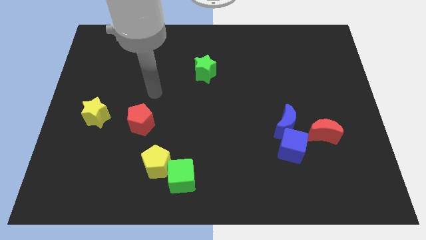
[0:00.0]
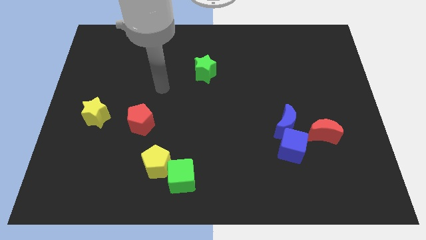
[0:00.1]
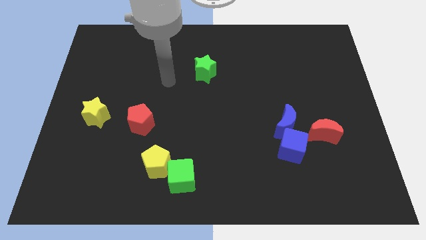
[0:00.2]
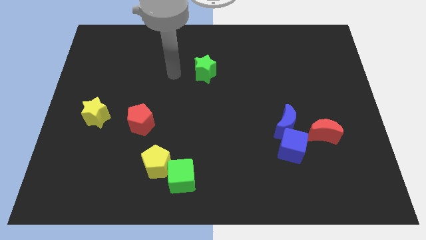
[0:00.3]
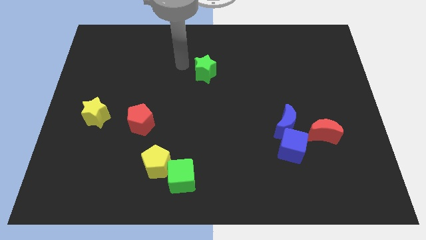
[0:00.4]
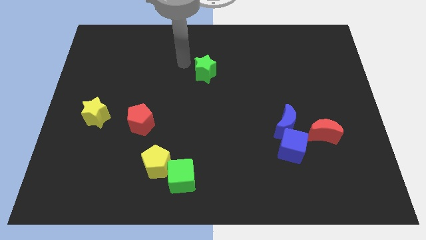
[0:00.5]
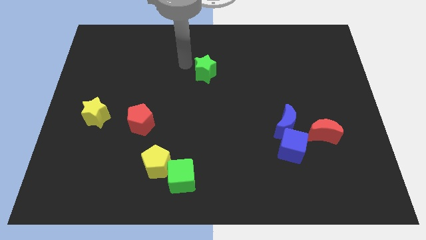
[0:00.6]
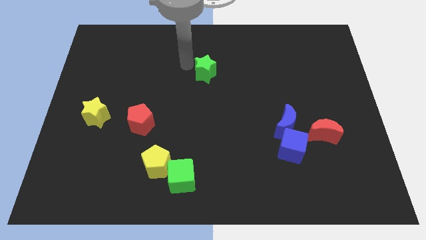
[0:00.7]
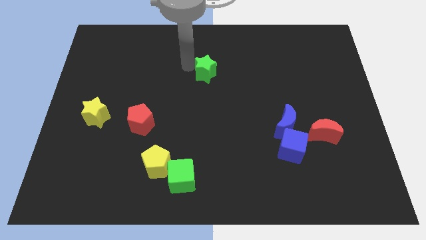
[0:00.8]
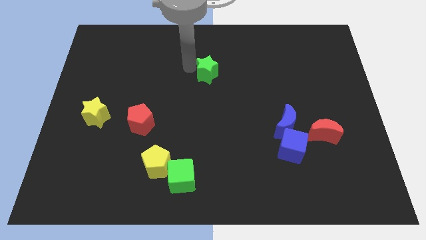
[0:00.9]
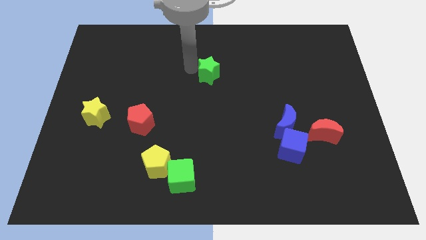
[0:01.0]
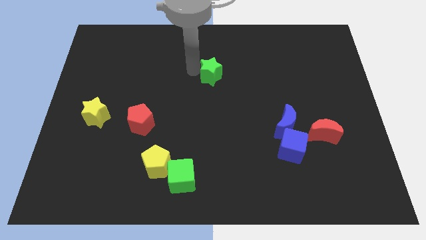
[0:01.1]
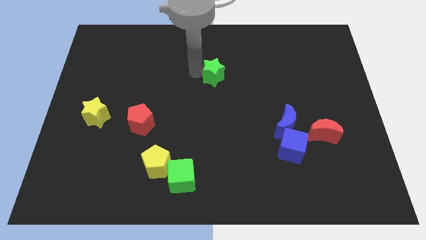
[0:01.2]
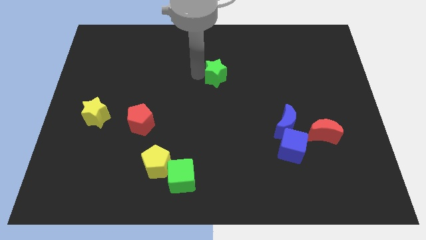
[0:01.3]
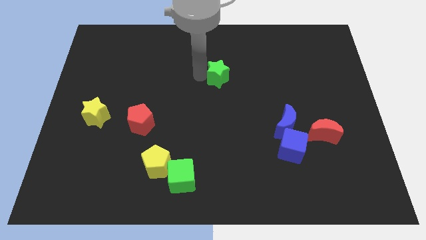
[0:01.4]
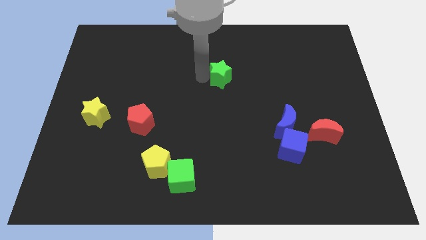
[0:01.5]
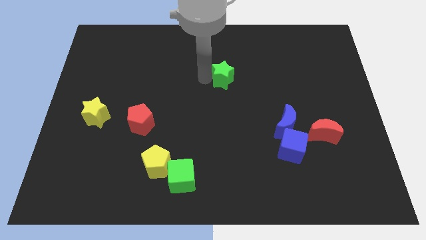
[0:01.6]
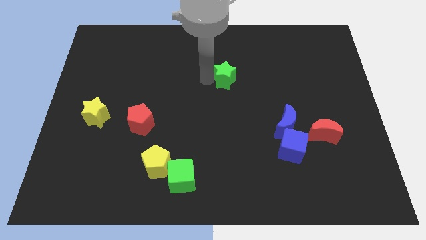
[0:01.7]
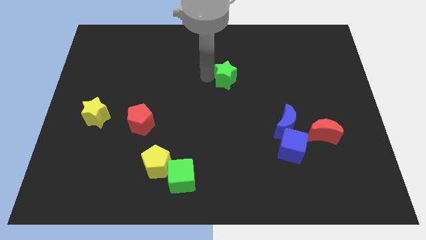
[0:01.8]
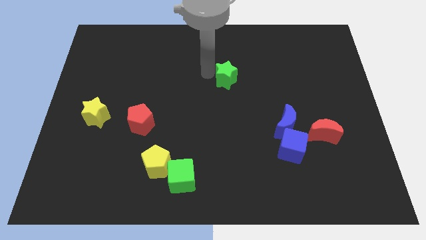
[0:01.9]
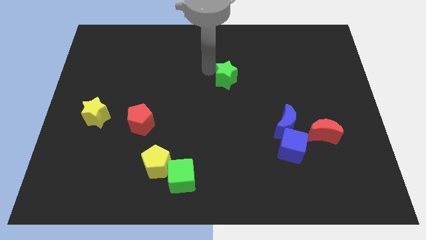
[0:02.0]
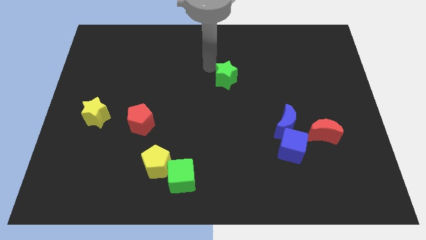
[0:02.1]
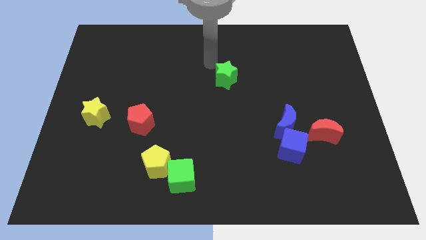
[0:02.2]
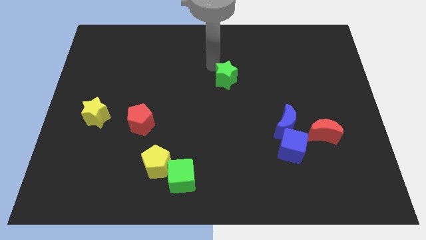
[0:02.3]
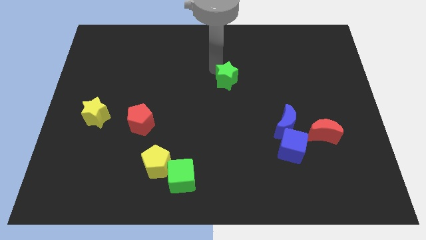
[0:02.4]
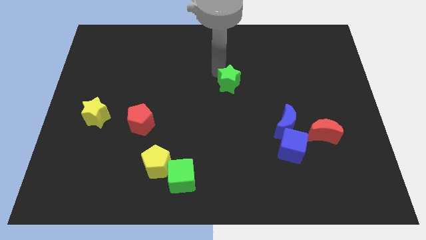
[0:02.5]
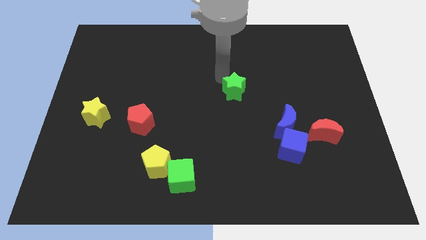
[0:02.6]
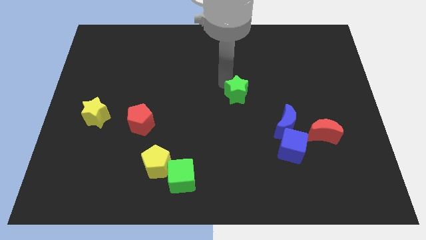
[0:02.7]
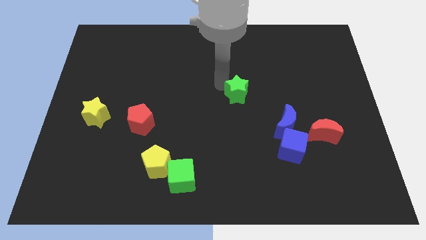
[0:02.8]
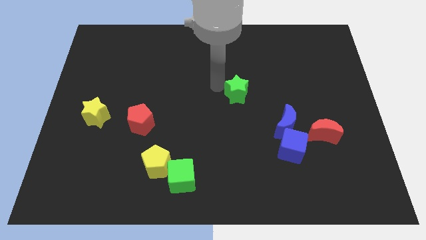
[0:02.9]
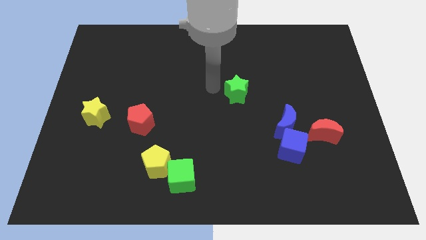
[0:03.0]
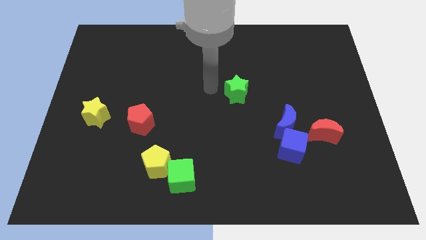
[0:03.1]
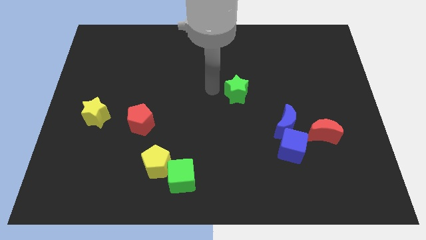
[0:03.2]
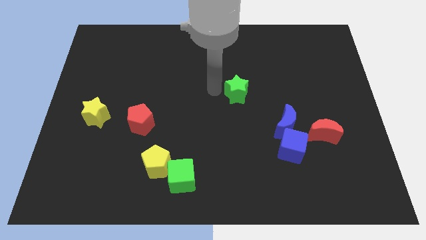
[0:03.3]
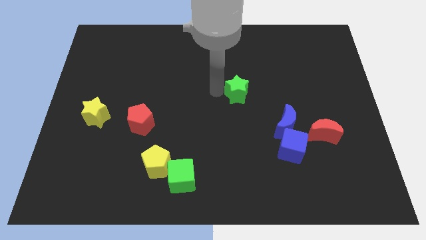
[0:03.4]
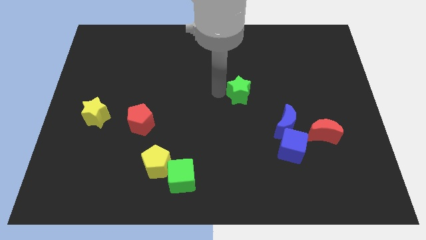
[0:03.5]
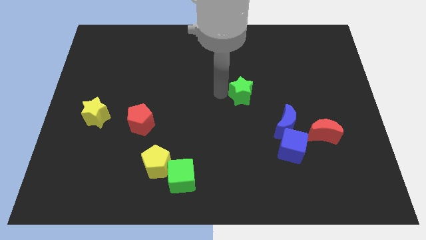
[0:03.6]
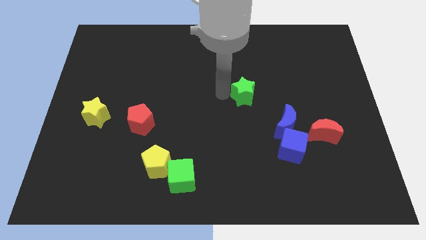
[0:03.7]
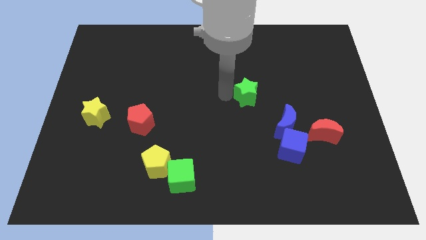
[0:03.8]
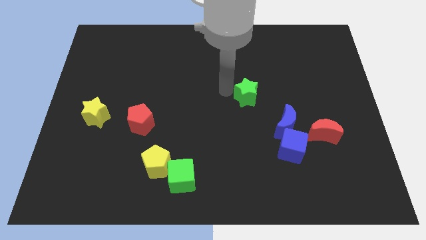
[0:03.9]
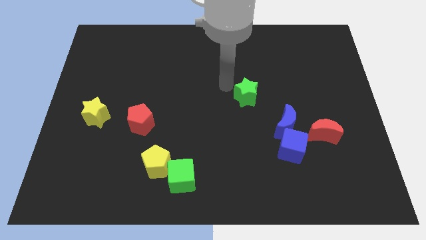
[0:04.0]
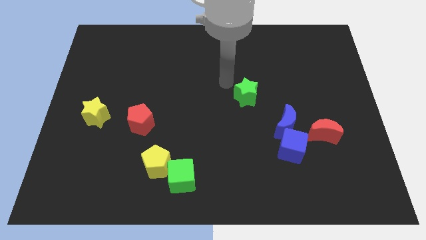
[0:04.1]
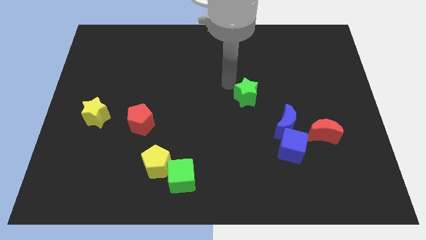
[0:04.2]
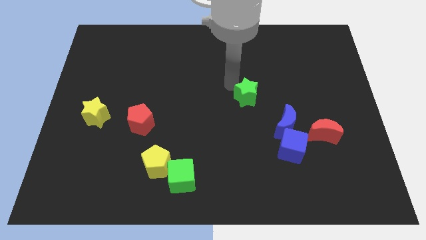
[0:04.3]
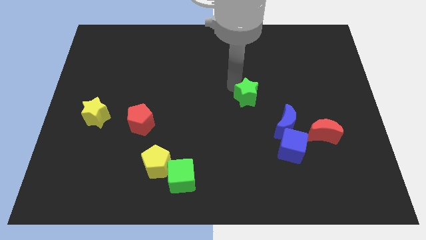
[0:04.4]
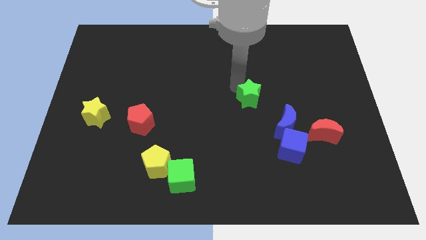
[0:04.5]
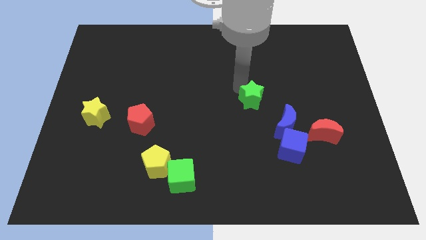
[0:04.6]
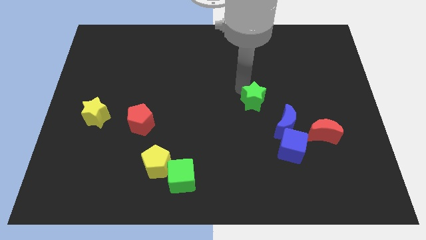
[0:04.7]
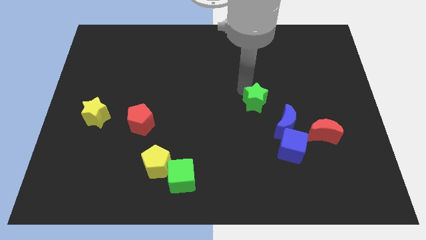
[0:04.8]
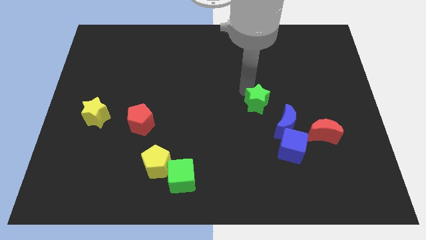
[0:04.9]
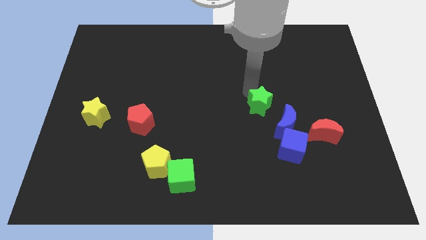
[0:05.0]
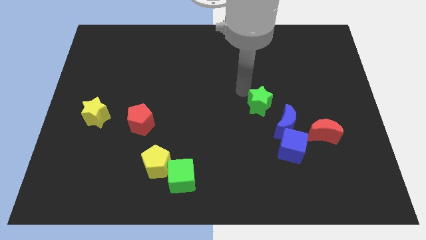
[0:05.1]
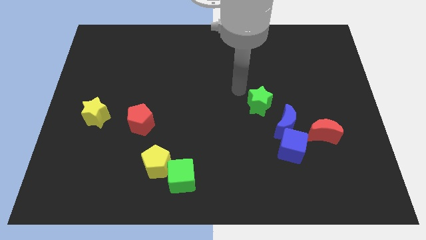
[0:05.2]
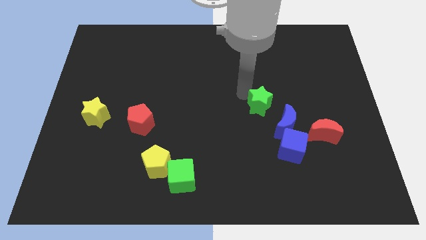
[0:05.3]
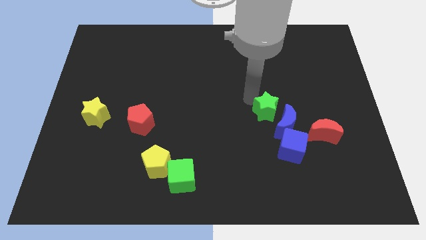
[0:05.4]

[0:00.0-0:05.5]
push the green star towards the blue moon

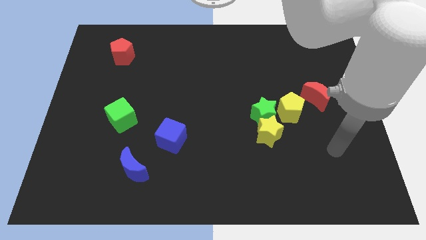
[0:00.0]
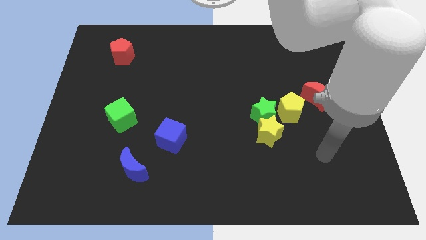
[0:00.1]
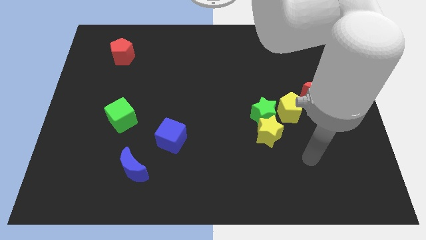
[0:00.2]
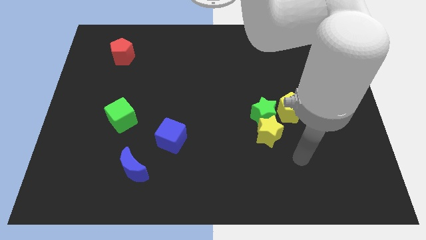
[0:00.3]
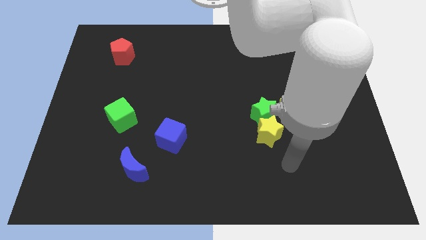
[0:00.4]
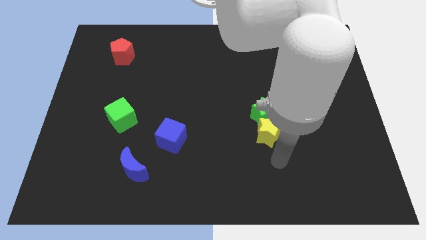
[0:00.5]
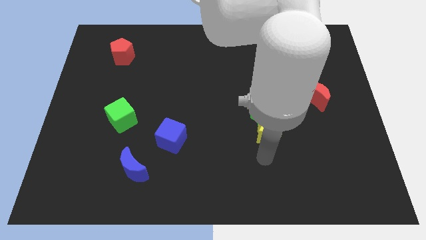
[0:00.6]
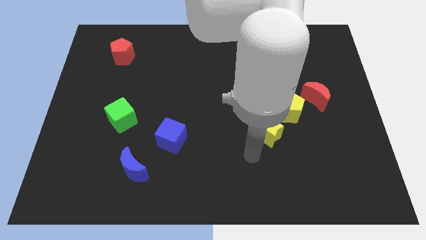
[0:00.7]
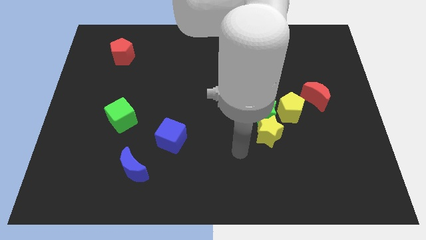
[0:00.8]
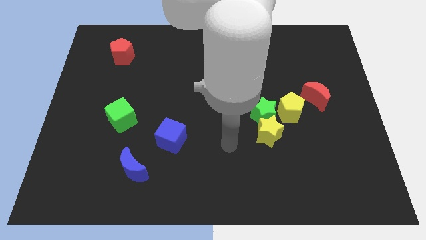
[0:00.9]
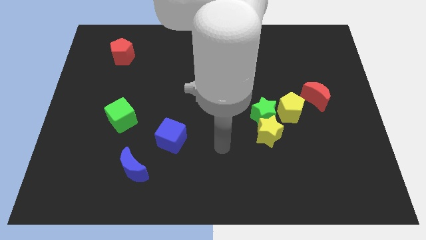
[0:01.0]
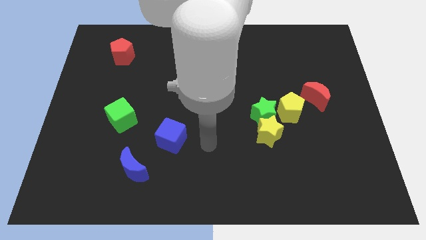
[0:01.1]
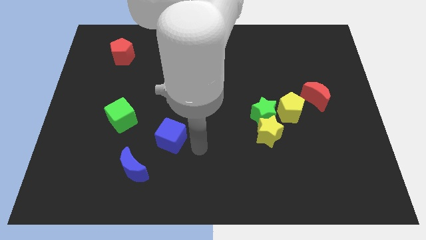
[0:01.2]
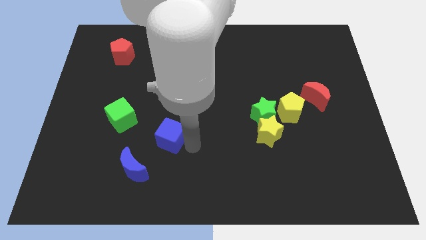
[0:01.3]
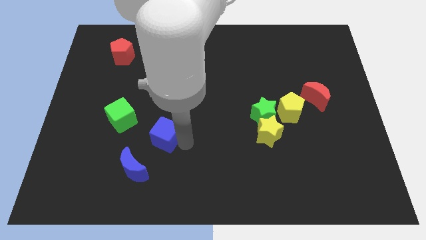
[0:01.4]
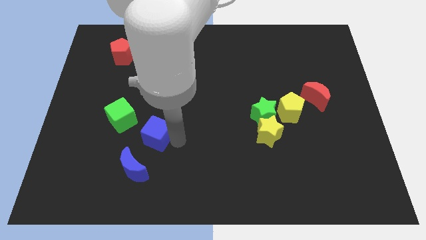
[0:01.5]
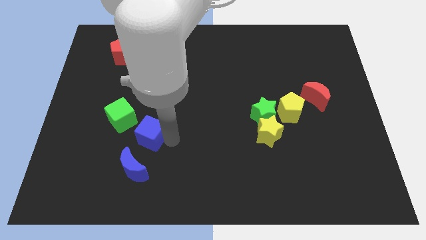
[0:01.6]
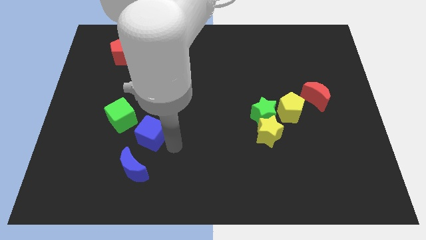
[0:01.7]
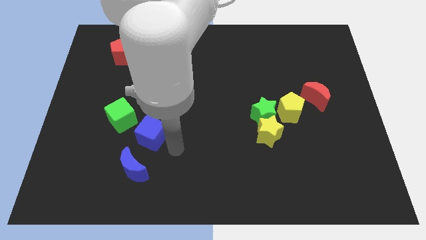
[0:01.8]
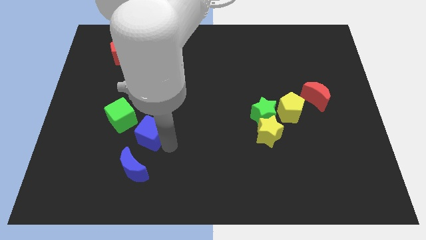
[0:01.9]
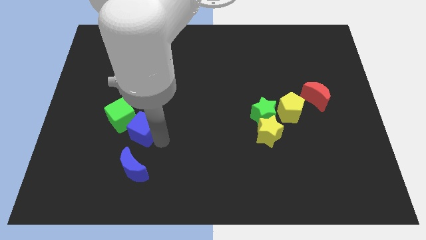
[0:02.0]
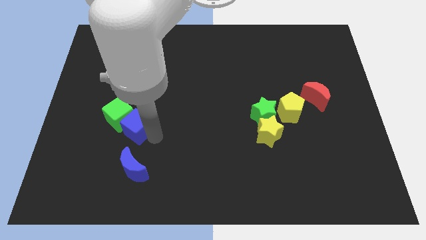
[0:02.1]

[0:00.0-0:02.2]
push the blue cube close to the green cube
